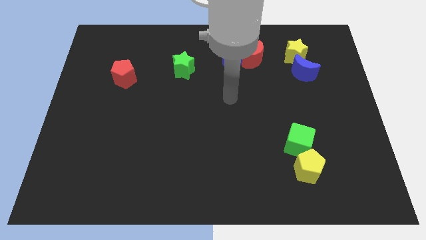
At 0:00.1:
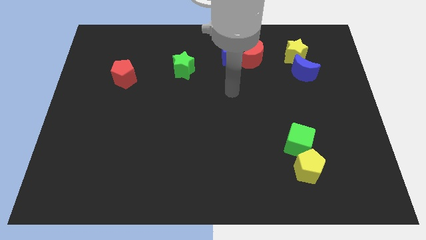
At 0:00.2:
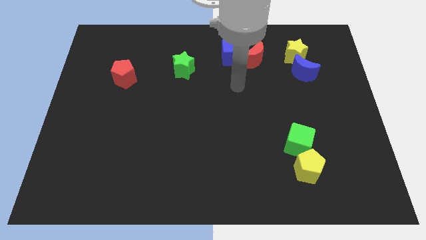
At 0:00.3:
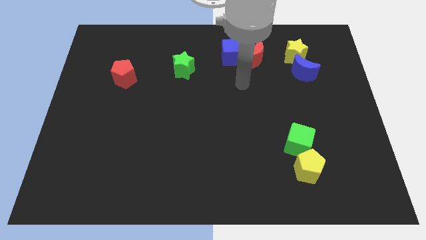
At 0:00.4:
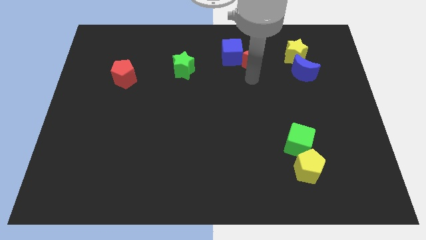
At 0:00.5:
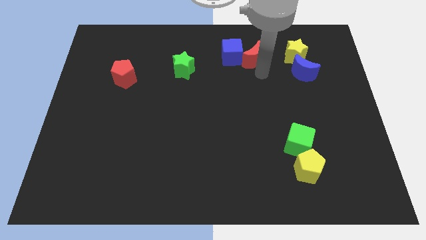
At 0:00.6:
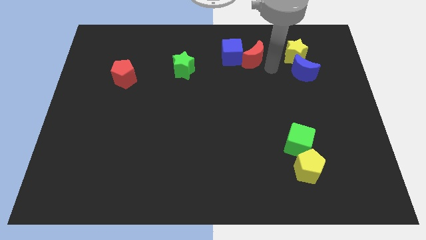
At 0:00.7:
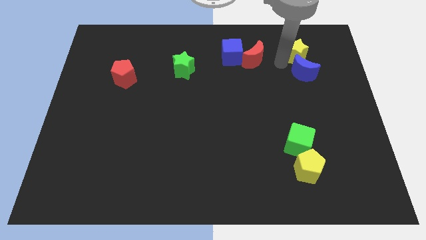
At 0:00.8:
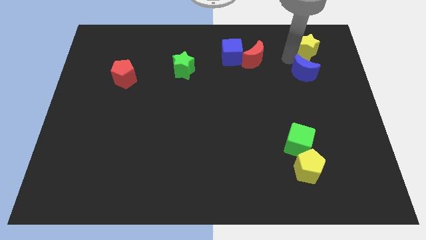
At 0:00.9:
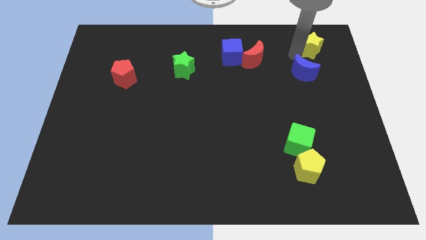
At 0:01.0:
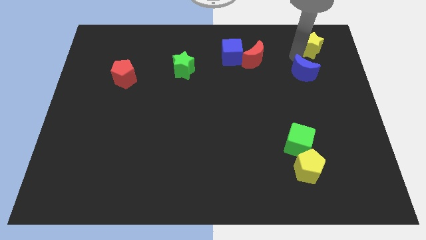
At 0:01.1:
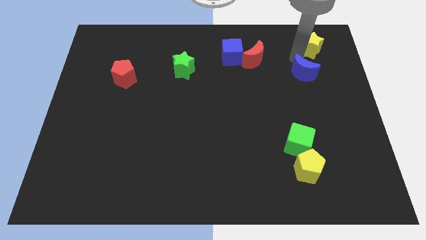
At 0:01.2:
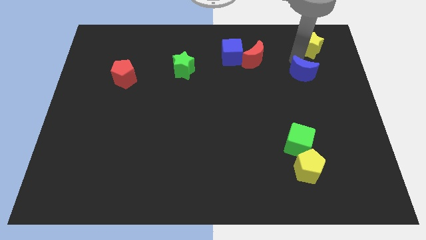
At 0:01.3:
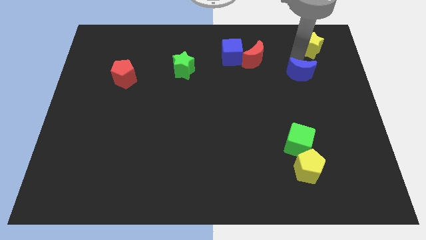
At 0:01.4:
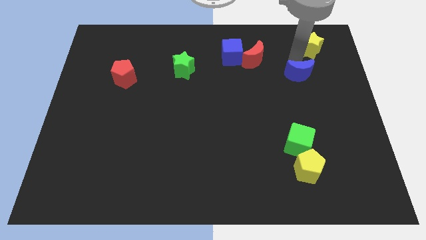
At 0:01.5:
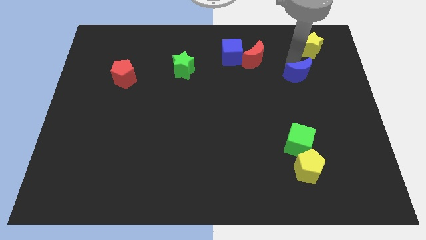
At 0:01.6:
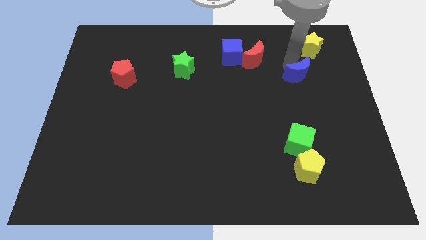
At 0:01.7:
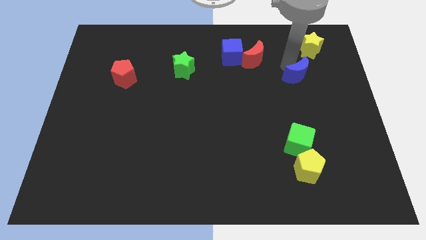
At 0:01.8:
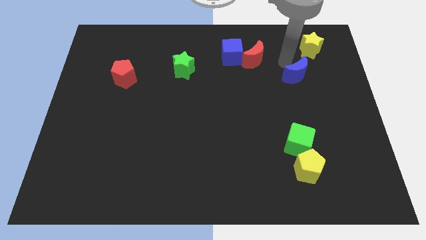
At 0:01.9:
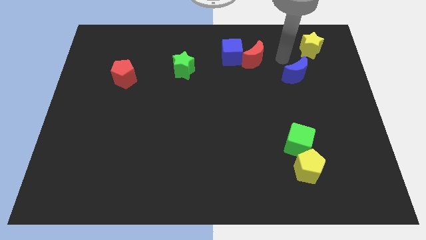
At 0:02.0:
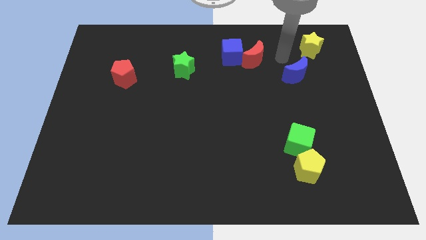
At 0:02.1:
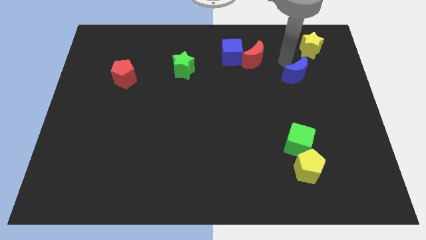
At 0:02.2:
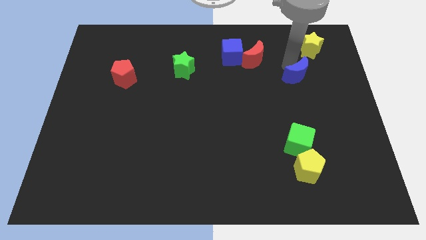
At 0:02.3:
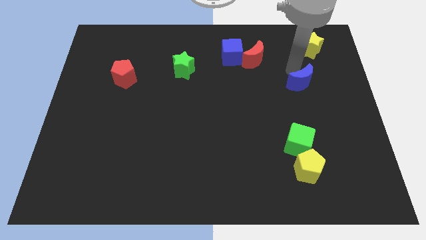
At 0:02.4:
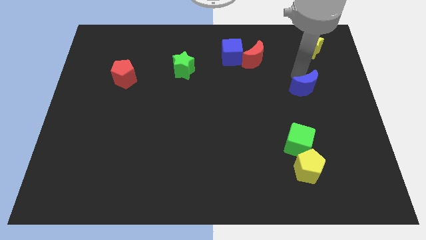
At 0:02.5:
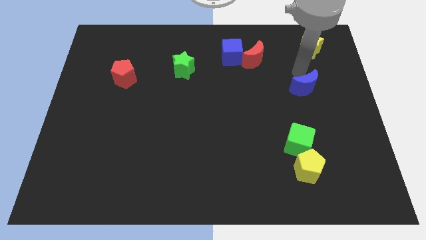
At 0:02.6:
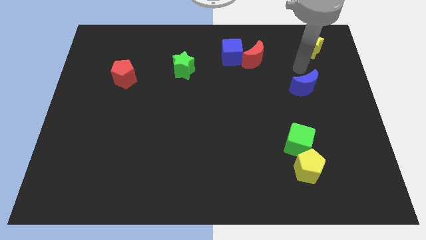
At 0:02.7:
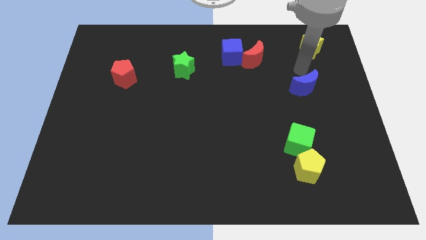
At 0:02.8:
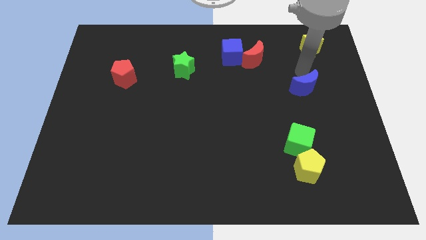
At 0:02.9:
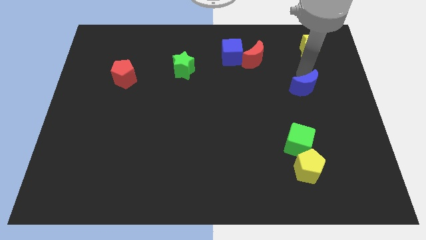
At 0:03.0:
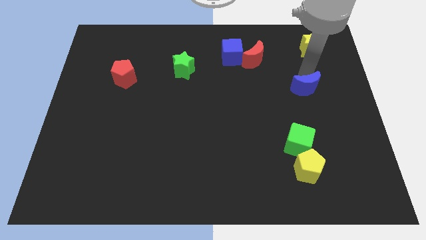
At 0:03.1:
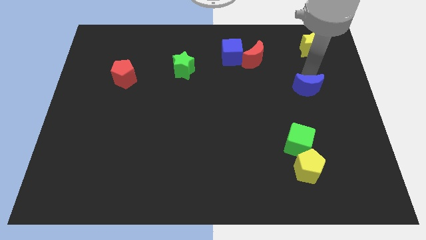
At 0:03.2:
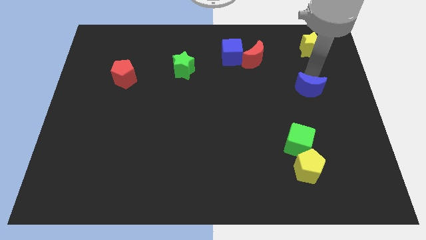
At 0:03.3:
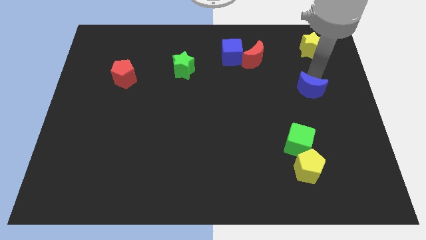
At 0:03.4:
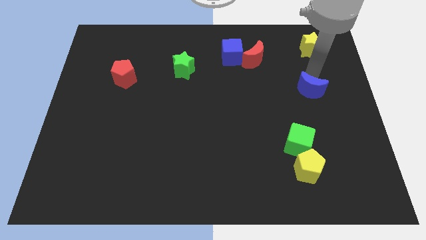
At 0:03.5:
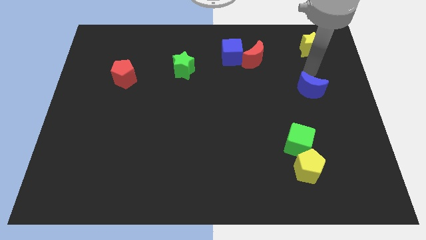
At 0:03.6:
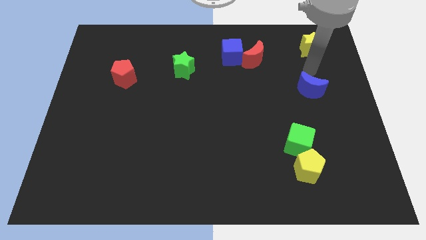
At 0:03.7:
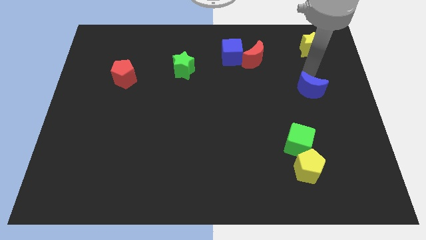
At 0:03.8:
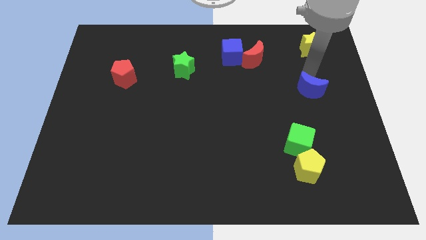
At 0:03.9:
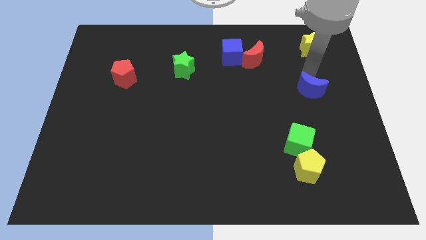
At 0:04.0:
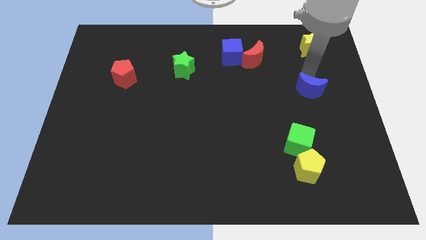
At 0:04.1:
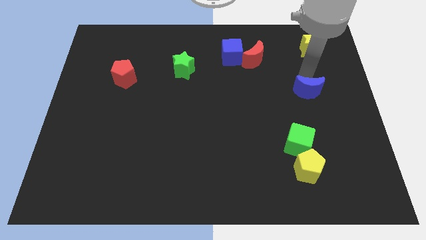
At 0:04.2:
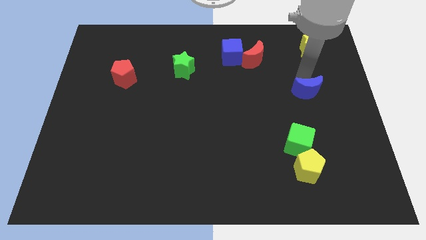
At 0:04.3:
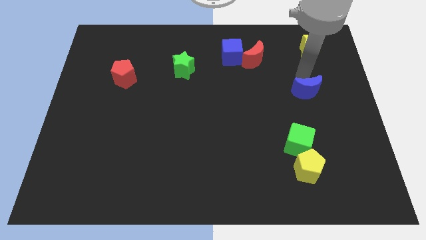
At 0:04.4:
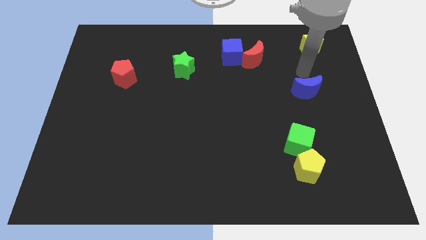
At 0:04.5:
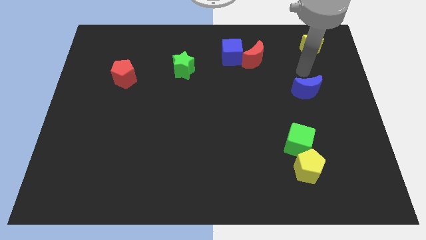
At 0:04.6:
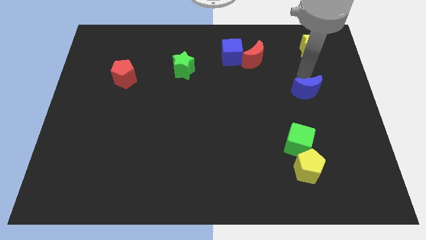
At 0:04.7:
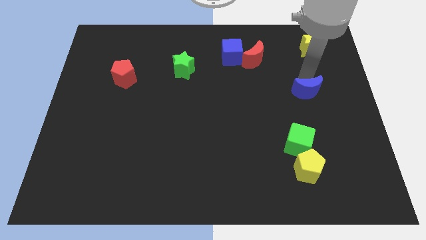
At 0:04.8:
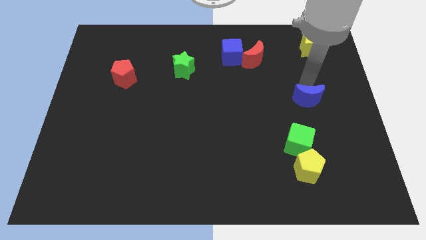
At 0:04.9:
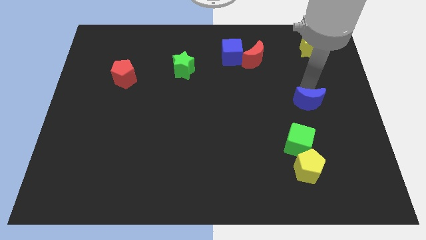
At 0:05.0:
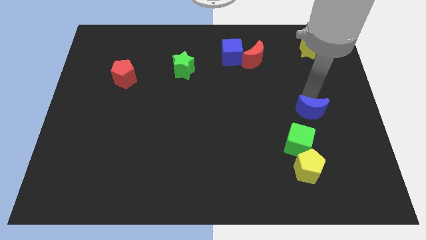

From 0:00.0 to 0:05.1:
slide the blue moon to the top of the yellow pentagon

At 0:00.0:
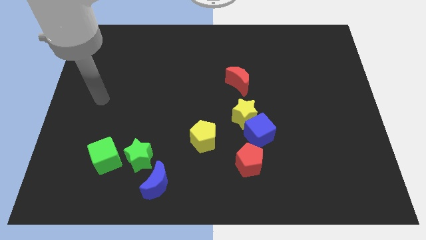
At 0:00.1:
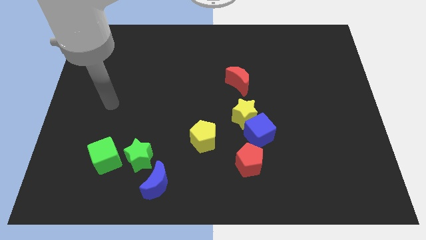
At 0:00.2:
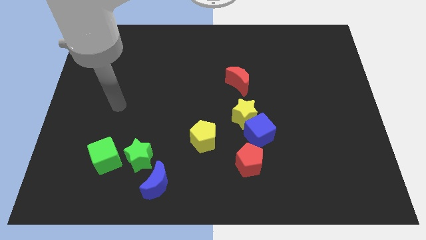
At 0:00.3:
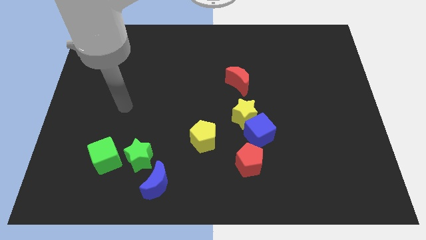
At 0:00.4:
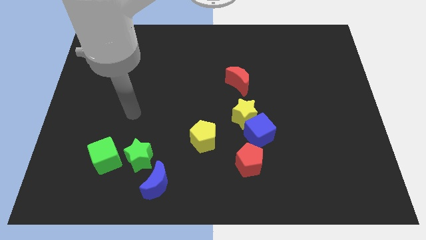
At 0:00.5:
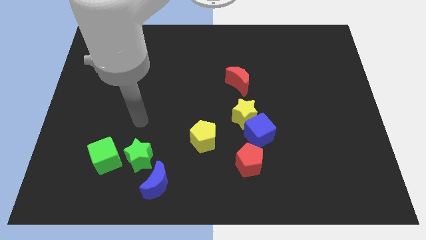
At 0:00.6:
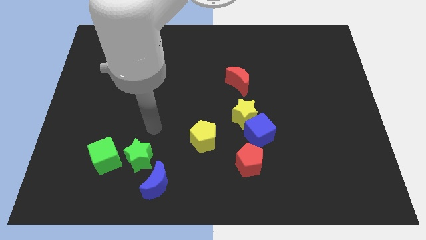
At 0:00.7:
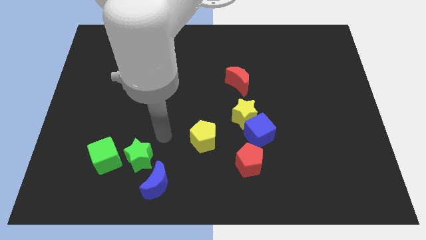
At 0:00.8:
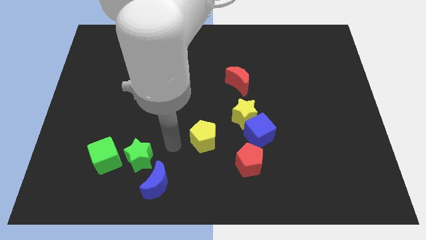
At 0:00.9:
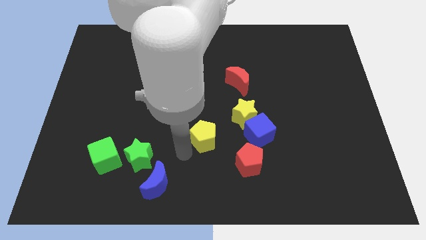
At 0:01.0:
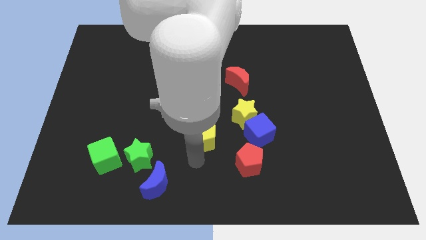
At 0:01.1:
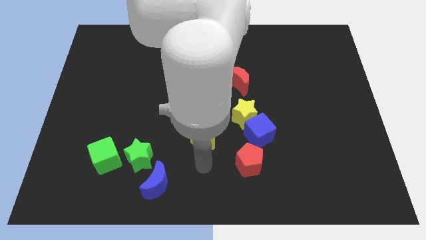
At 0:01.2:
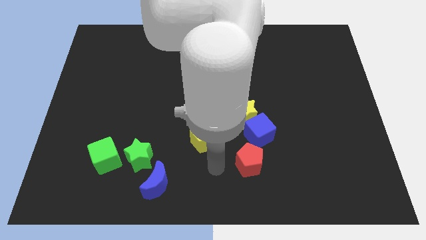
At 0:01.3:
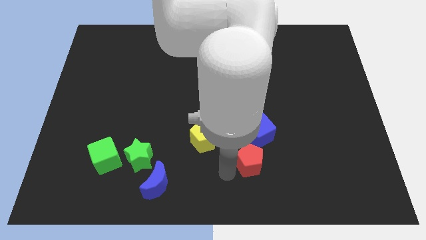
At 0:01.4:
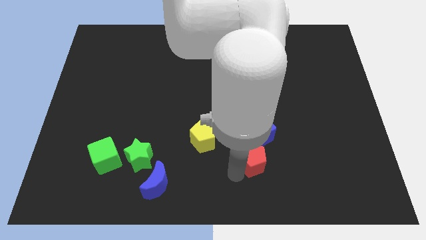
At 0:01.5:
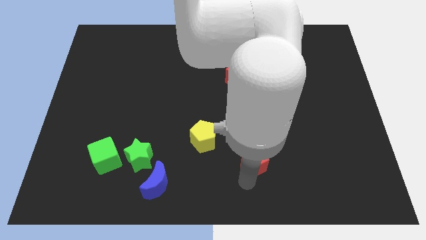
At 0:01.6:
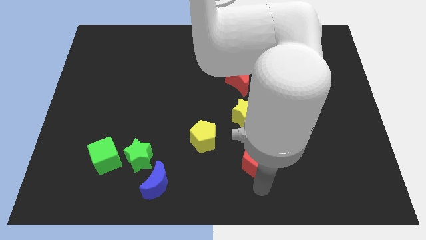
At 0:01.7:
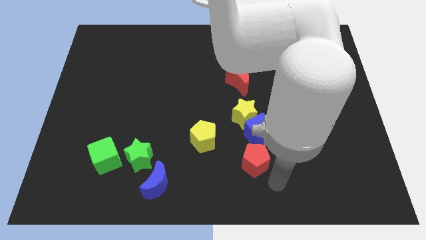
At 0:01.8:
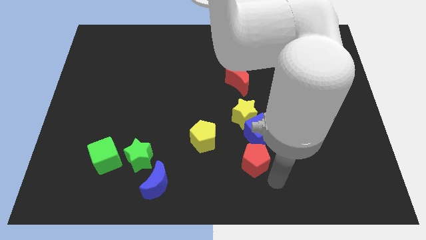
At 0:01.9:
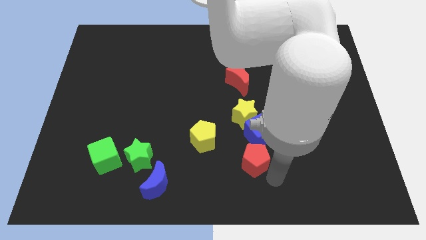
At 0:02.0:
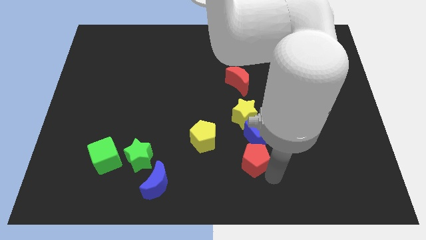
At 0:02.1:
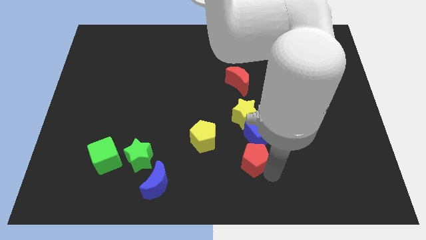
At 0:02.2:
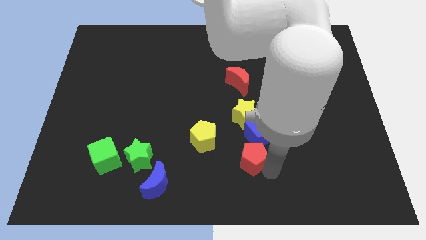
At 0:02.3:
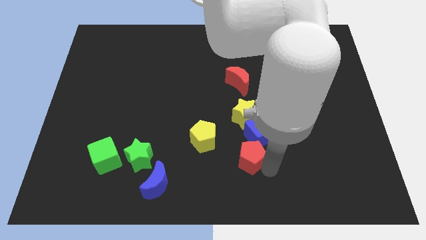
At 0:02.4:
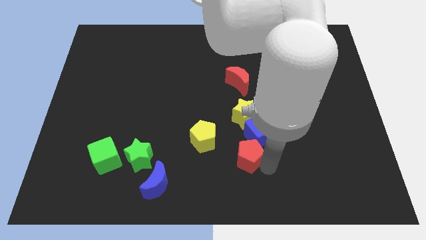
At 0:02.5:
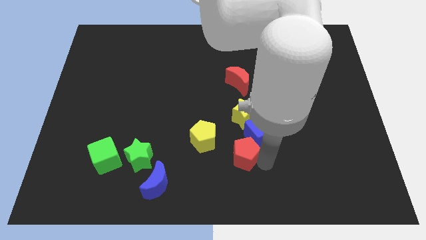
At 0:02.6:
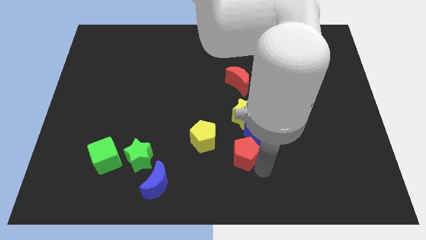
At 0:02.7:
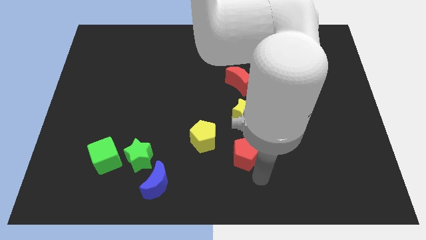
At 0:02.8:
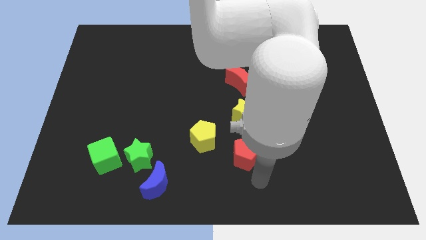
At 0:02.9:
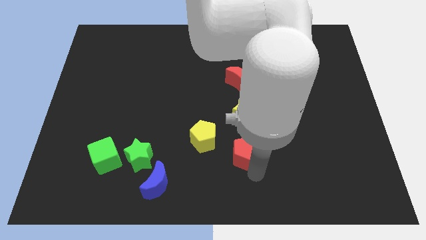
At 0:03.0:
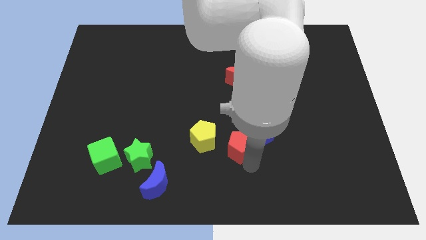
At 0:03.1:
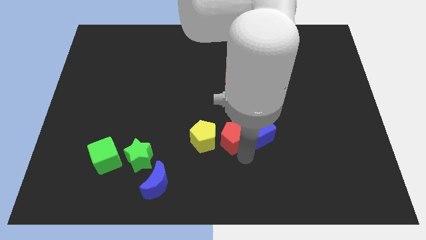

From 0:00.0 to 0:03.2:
slide the red pentagon to the top right side of the yellow pentagon
